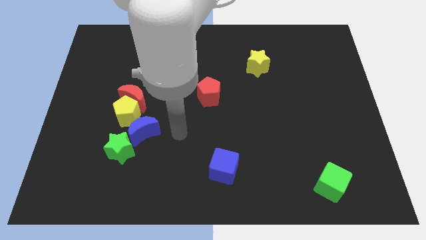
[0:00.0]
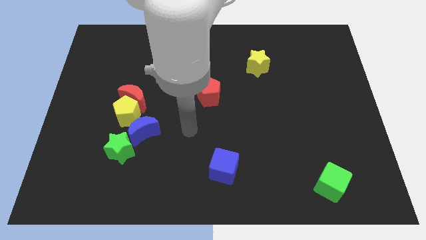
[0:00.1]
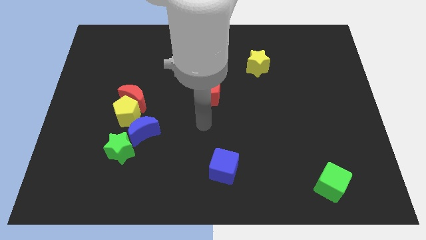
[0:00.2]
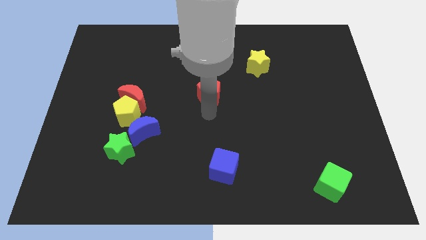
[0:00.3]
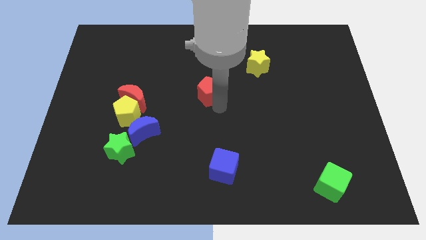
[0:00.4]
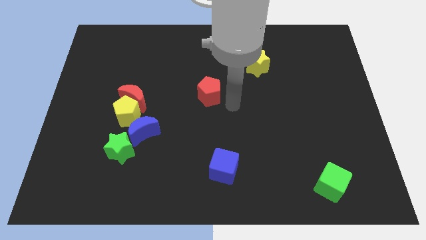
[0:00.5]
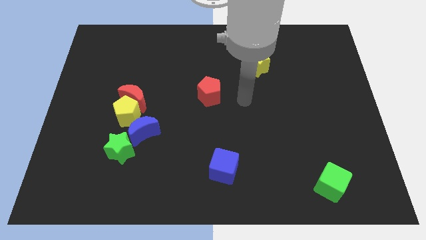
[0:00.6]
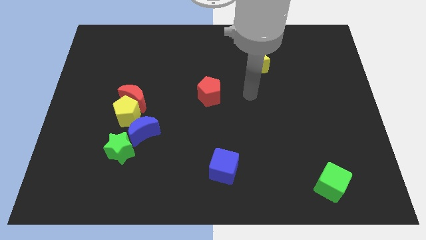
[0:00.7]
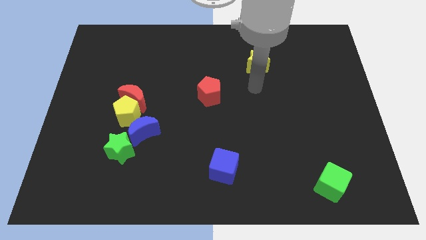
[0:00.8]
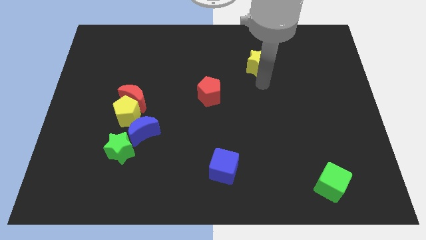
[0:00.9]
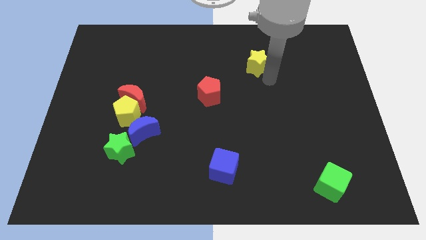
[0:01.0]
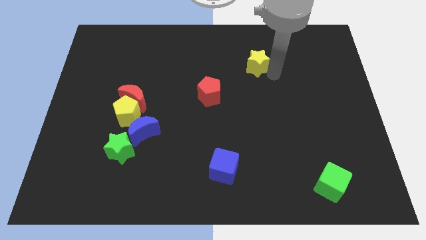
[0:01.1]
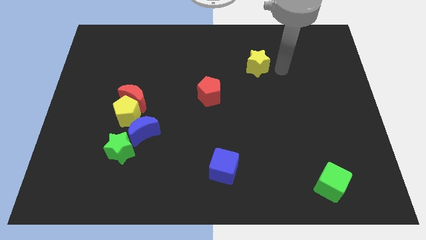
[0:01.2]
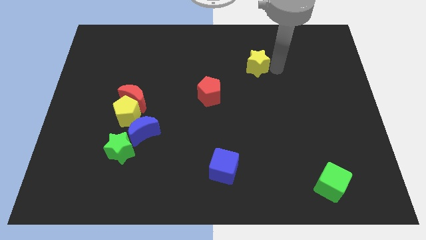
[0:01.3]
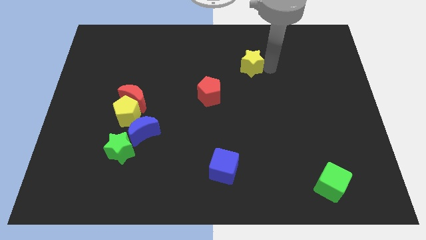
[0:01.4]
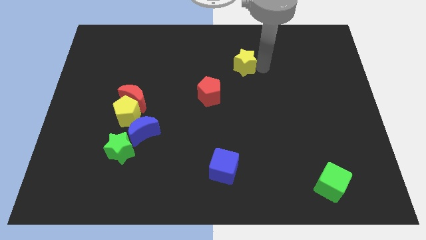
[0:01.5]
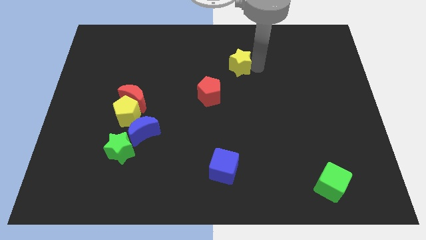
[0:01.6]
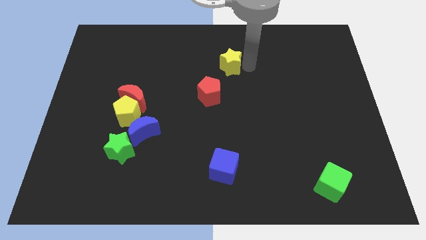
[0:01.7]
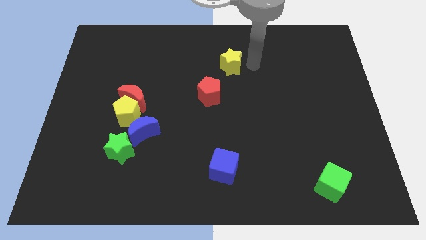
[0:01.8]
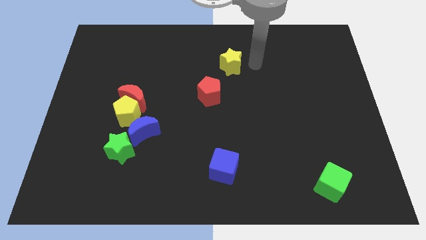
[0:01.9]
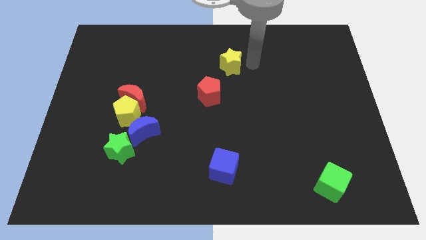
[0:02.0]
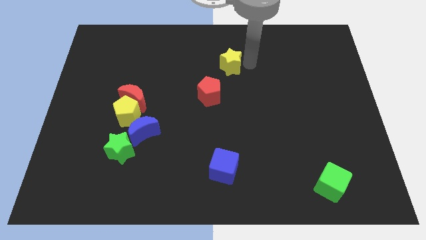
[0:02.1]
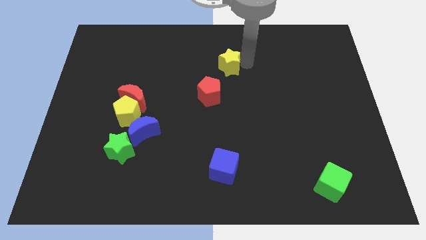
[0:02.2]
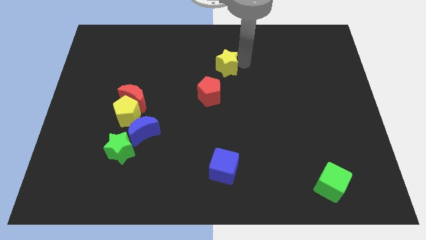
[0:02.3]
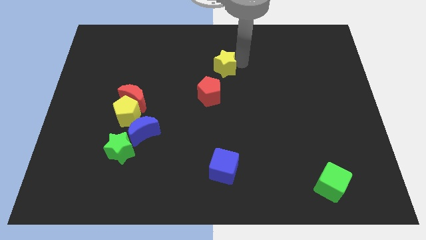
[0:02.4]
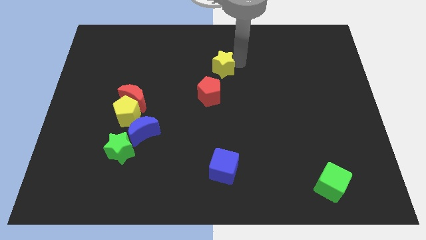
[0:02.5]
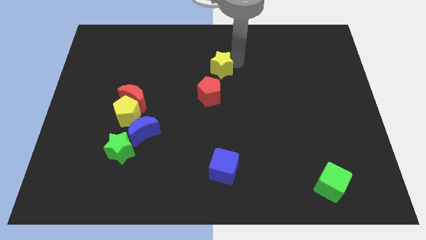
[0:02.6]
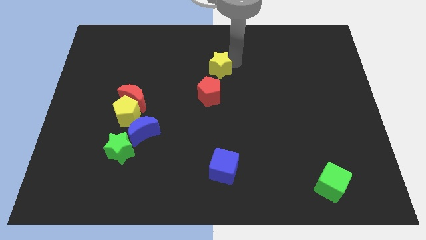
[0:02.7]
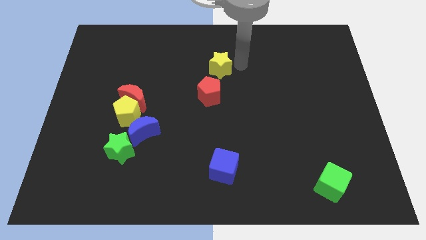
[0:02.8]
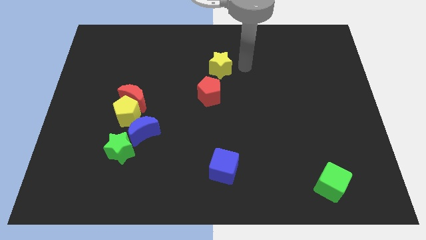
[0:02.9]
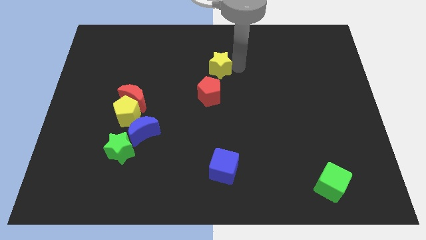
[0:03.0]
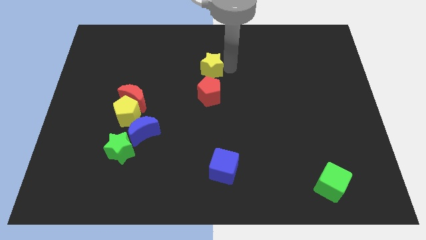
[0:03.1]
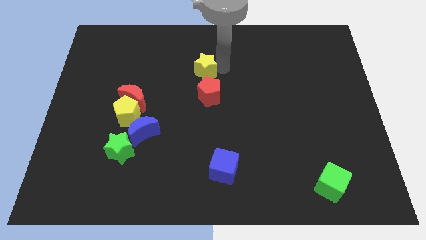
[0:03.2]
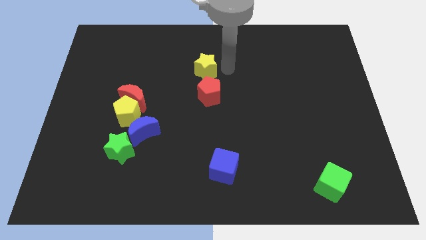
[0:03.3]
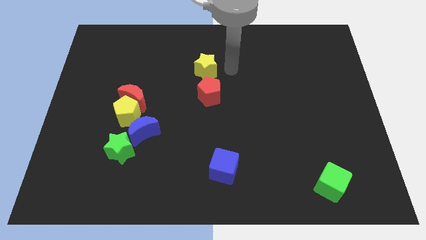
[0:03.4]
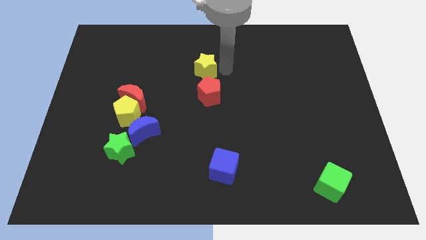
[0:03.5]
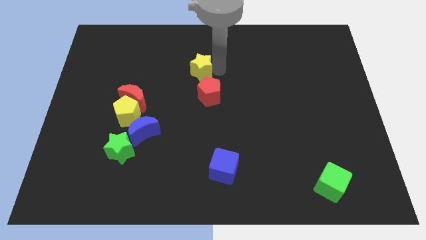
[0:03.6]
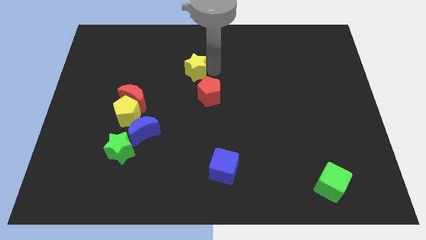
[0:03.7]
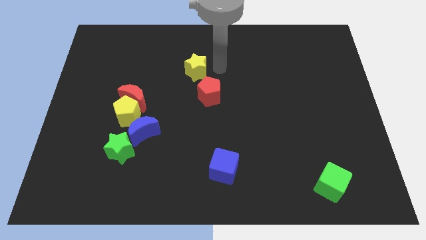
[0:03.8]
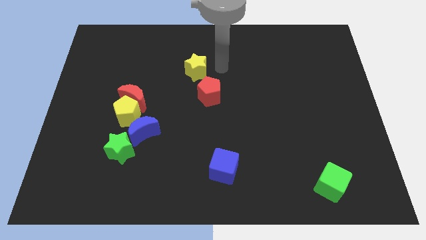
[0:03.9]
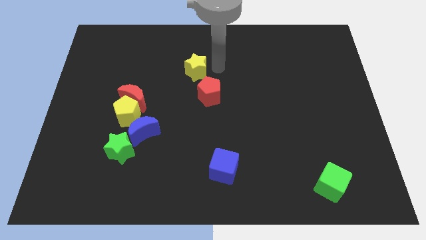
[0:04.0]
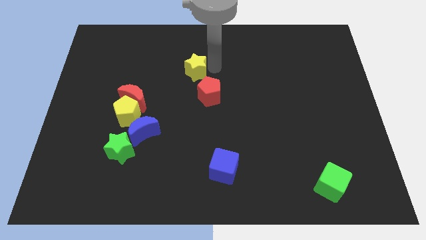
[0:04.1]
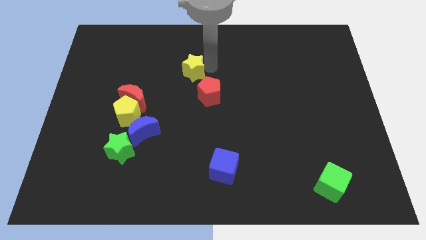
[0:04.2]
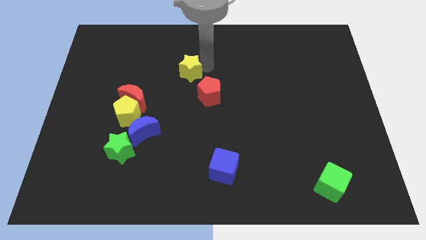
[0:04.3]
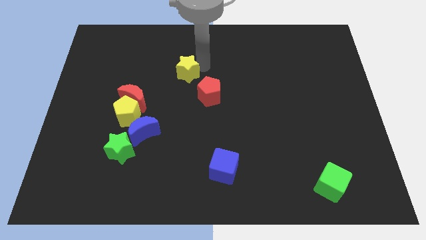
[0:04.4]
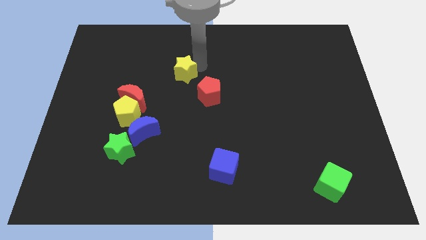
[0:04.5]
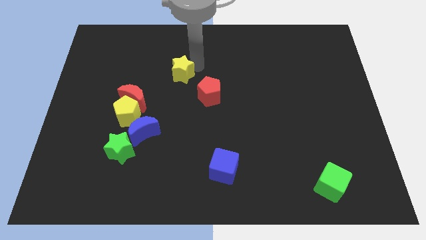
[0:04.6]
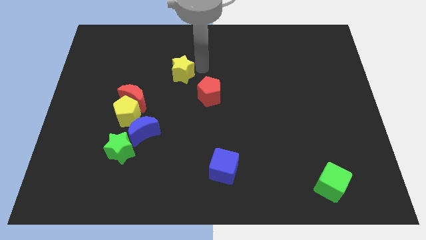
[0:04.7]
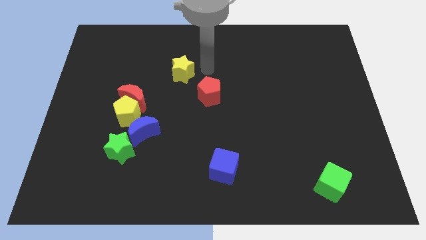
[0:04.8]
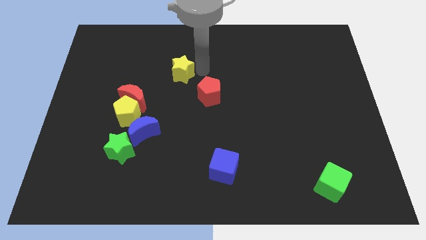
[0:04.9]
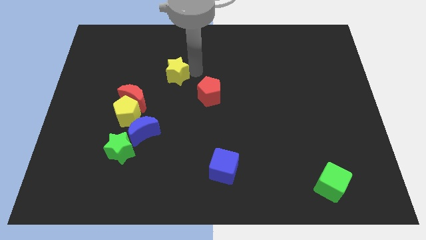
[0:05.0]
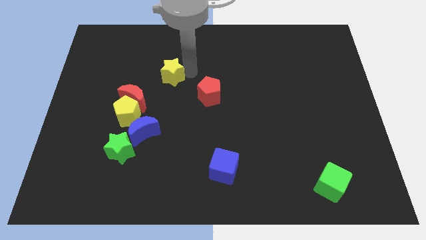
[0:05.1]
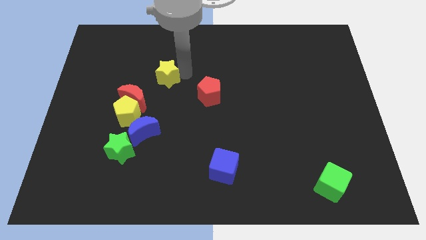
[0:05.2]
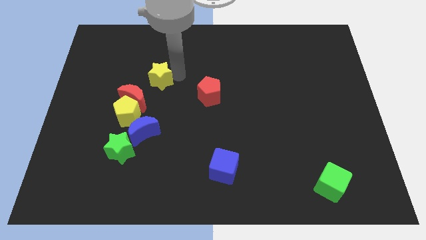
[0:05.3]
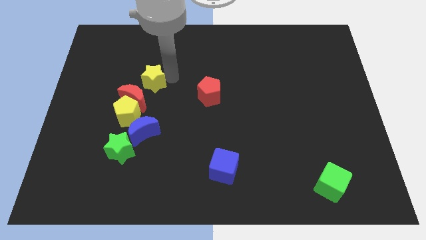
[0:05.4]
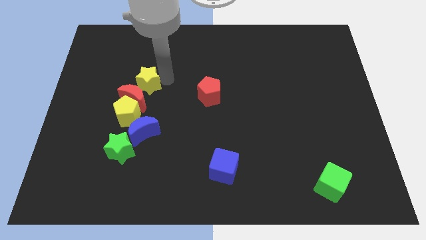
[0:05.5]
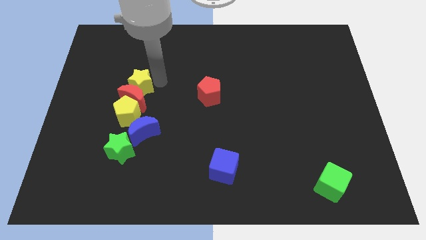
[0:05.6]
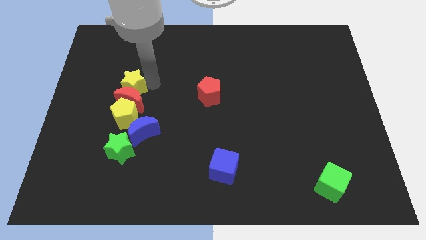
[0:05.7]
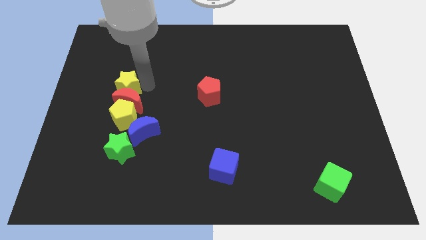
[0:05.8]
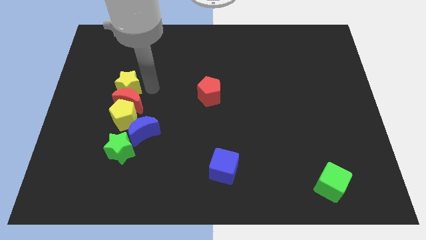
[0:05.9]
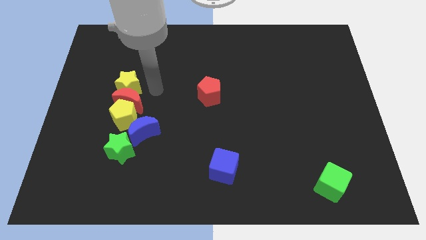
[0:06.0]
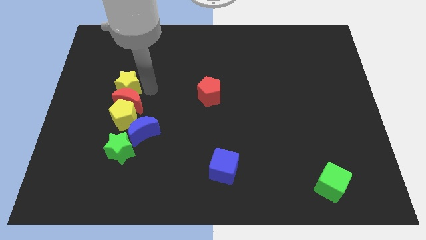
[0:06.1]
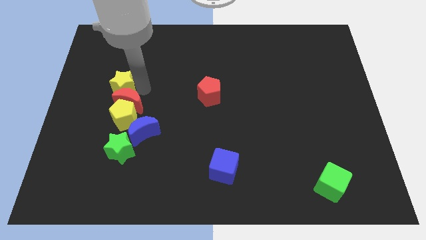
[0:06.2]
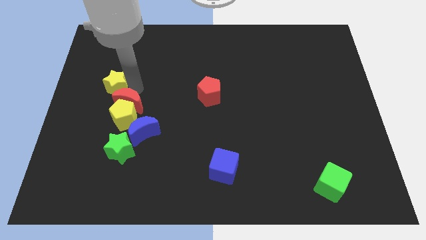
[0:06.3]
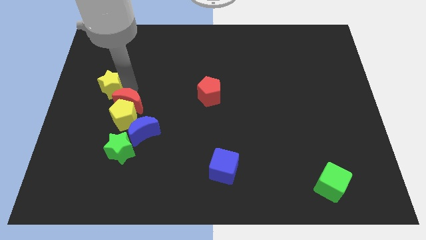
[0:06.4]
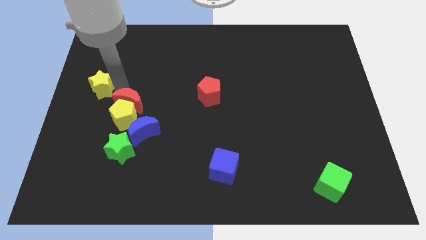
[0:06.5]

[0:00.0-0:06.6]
push the yellow star to the left side
